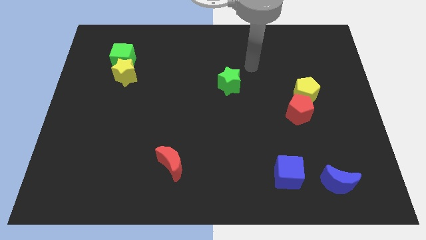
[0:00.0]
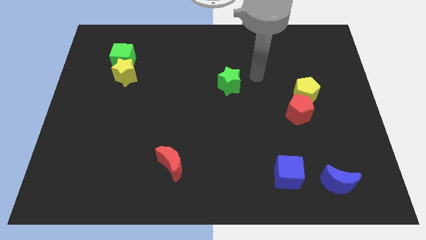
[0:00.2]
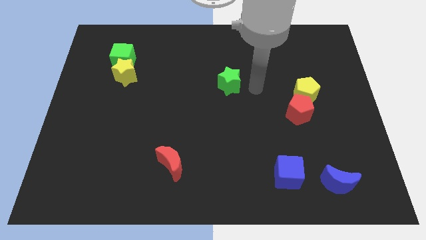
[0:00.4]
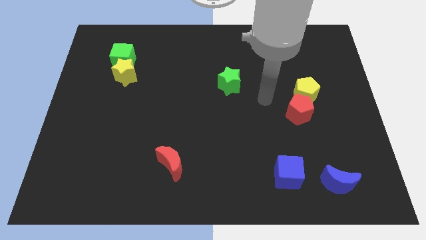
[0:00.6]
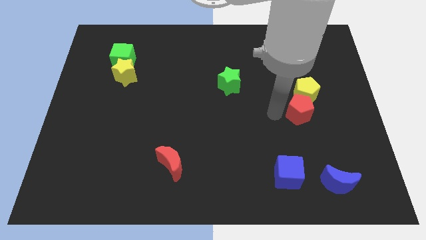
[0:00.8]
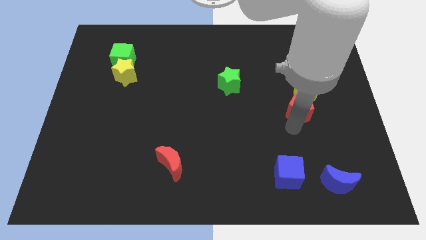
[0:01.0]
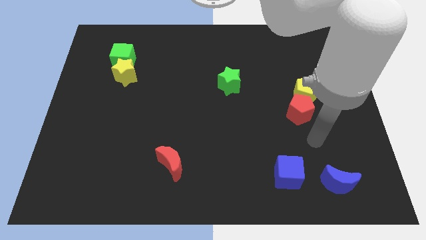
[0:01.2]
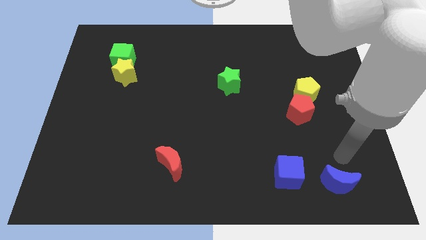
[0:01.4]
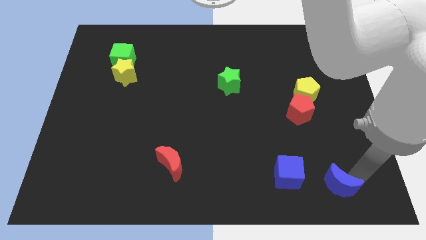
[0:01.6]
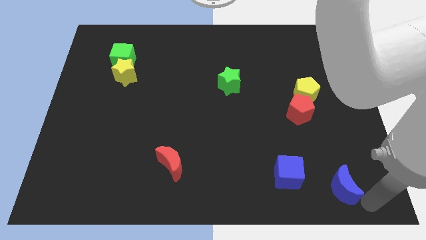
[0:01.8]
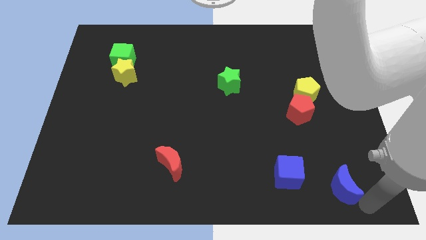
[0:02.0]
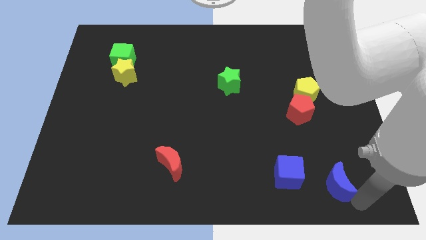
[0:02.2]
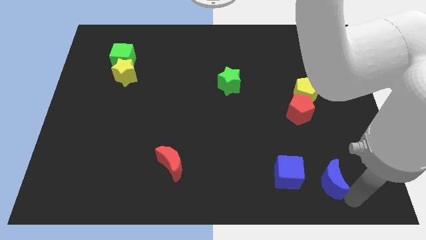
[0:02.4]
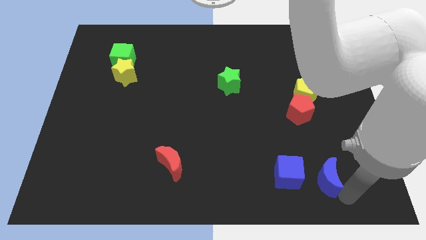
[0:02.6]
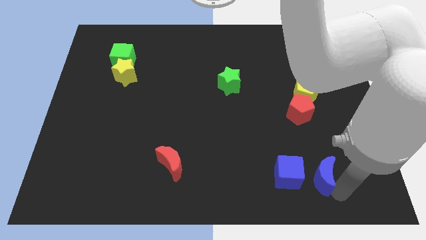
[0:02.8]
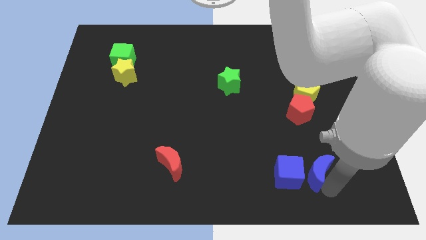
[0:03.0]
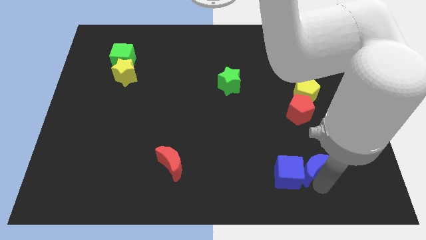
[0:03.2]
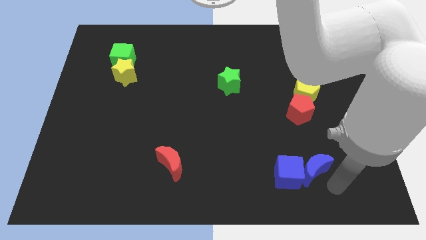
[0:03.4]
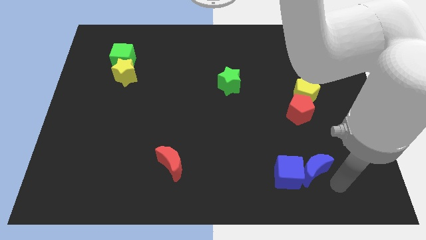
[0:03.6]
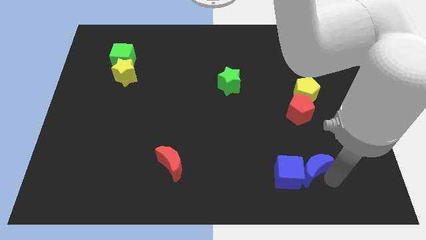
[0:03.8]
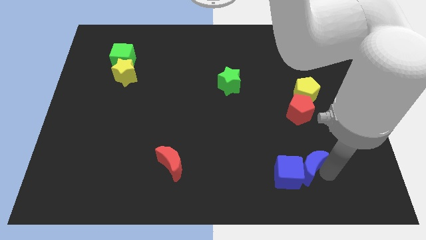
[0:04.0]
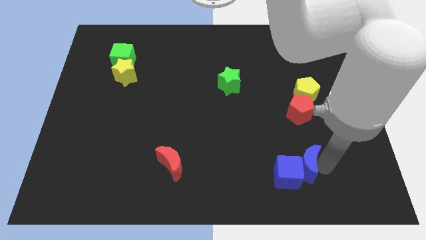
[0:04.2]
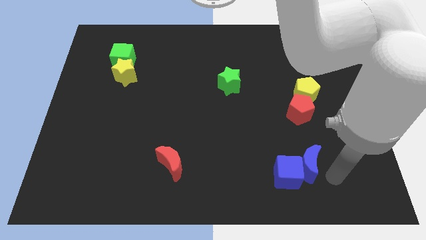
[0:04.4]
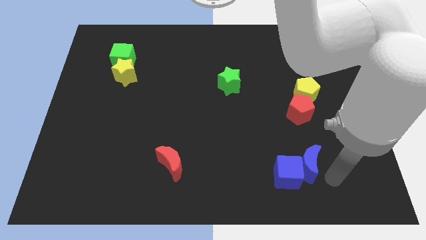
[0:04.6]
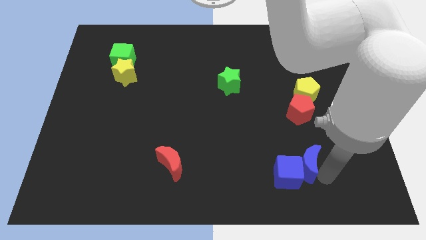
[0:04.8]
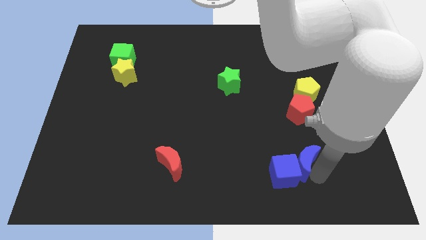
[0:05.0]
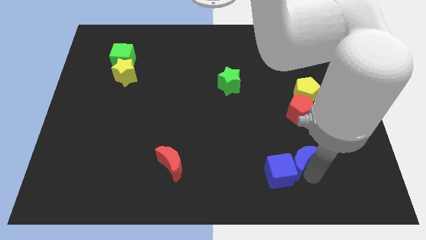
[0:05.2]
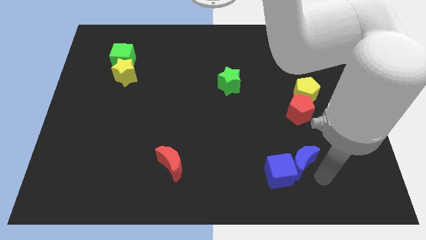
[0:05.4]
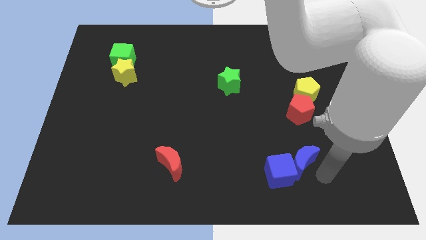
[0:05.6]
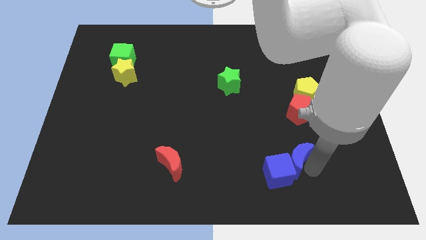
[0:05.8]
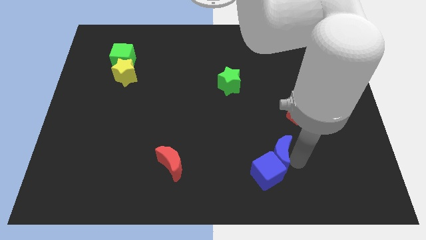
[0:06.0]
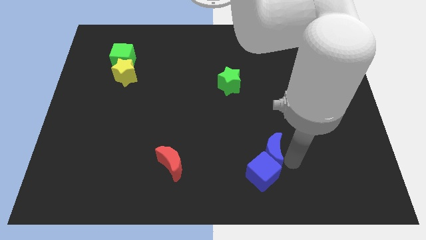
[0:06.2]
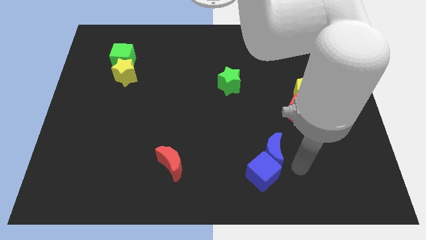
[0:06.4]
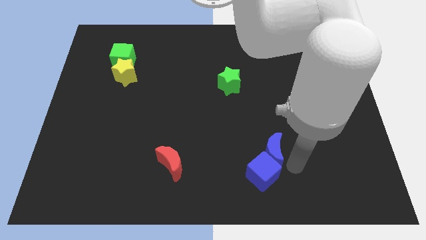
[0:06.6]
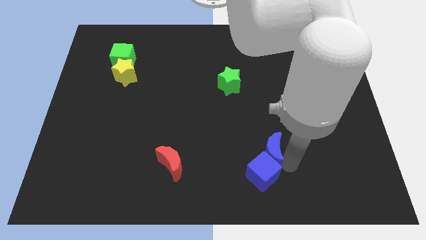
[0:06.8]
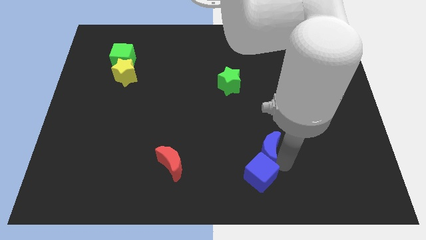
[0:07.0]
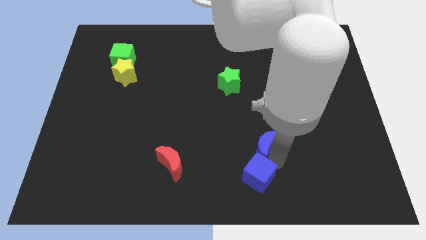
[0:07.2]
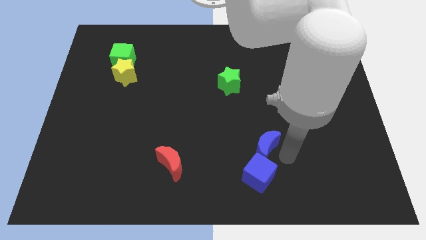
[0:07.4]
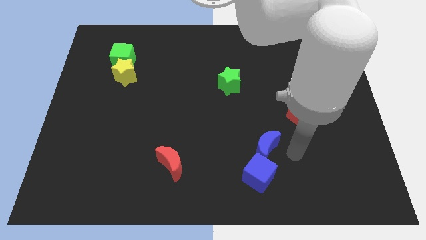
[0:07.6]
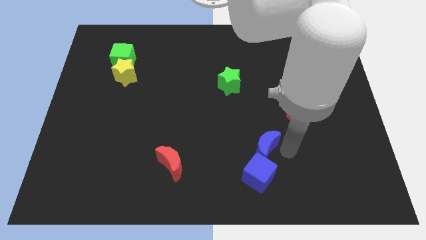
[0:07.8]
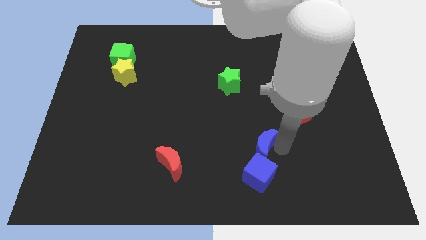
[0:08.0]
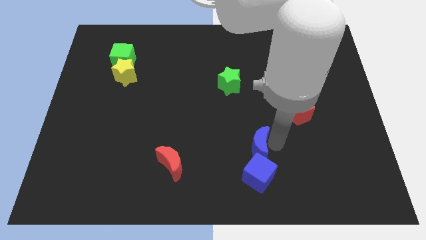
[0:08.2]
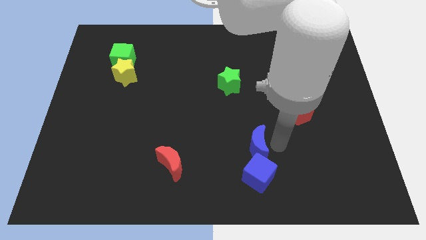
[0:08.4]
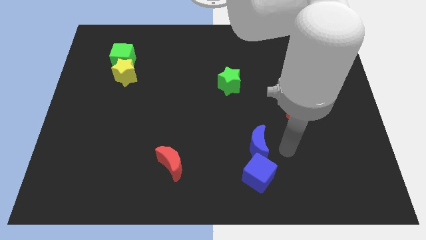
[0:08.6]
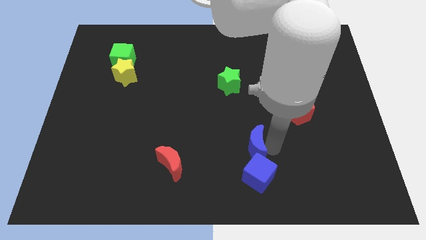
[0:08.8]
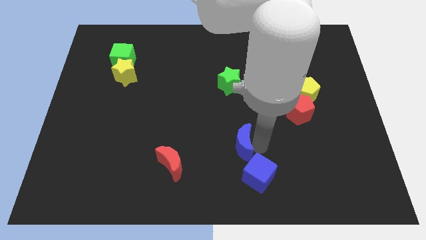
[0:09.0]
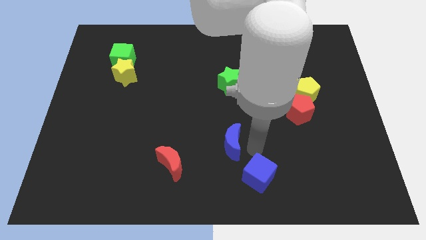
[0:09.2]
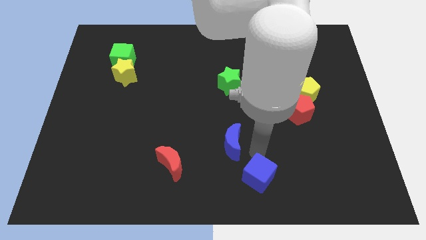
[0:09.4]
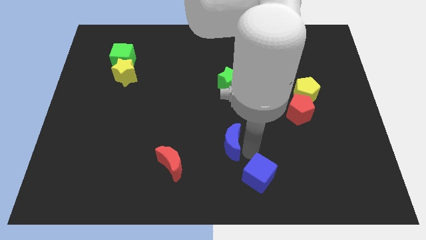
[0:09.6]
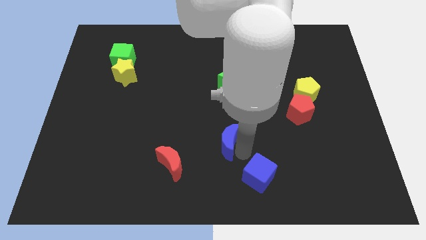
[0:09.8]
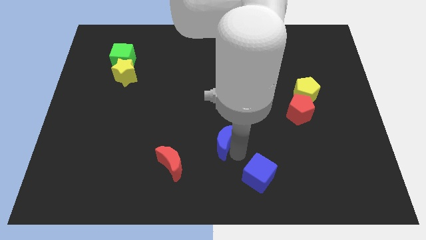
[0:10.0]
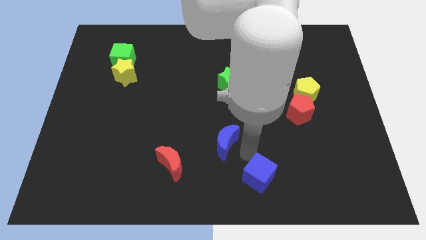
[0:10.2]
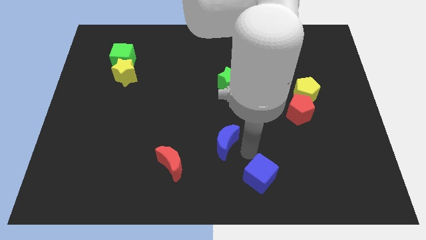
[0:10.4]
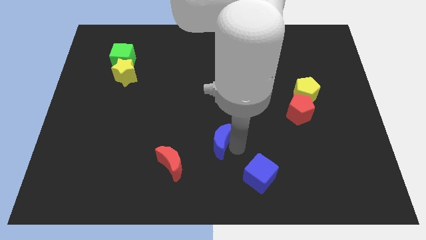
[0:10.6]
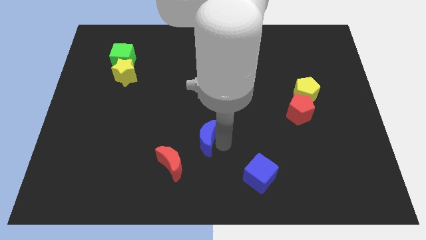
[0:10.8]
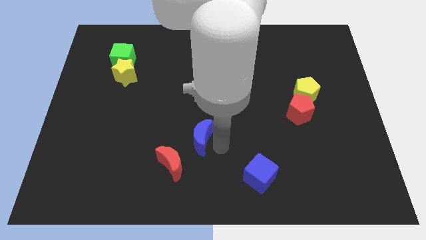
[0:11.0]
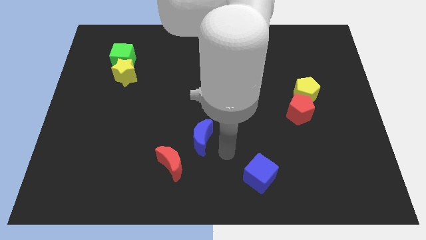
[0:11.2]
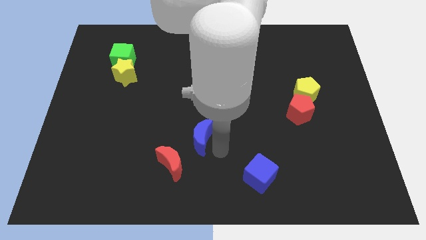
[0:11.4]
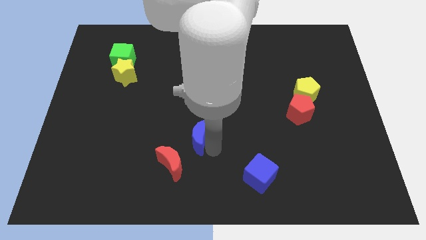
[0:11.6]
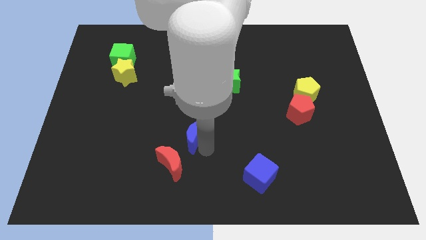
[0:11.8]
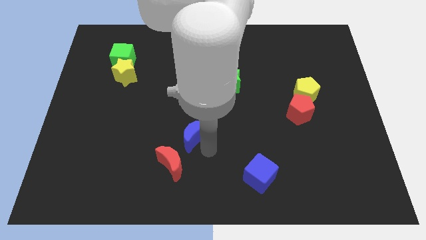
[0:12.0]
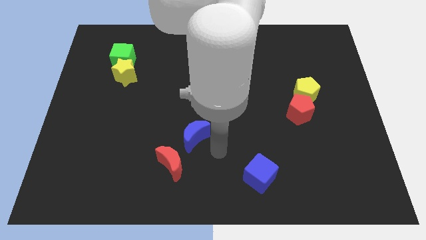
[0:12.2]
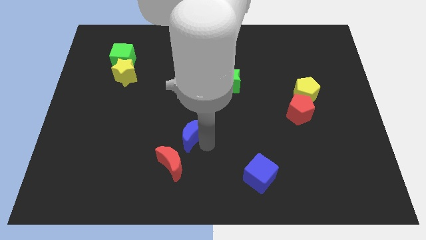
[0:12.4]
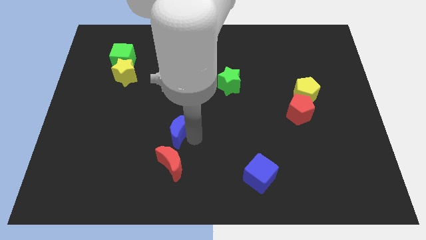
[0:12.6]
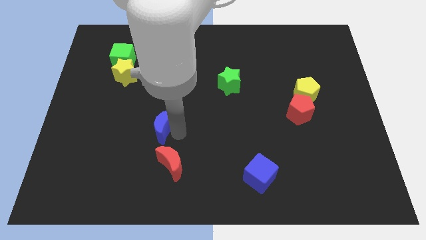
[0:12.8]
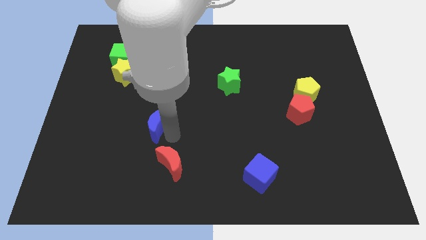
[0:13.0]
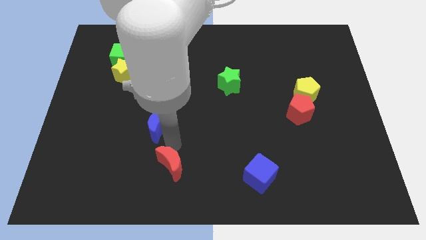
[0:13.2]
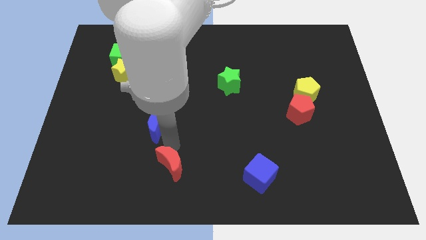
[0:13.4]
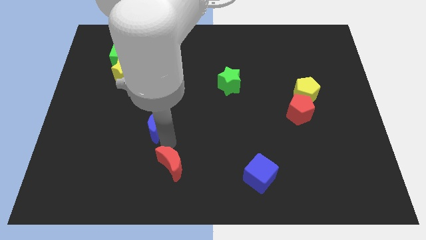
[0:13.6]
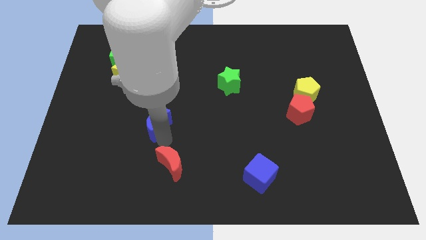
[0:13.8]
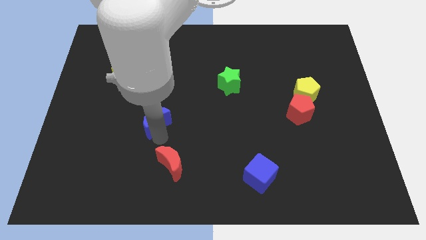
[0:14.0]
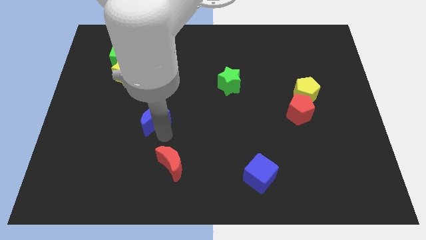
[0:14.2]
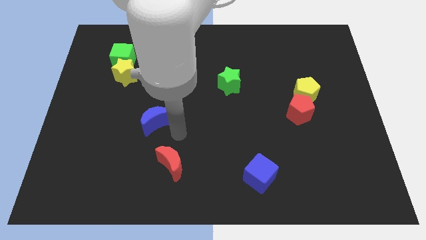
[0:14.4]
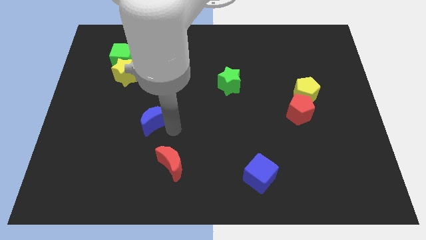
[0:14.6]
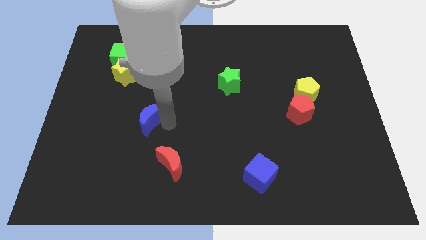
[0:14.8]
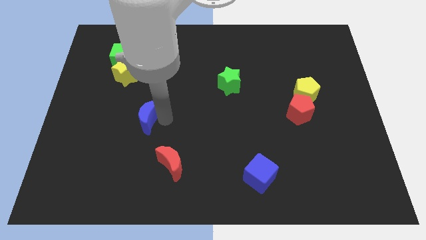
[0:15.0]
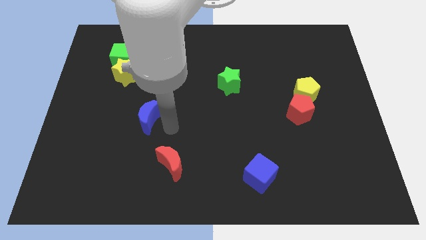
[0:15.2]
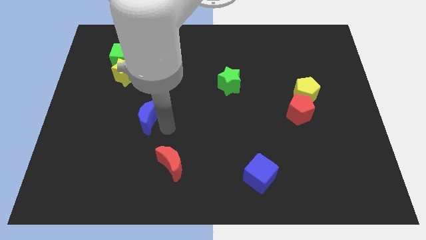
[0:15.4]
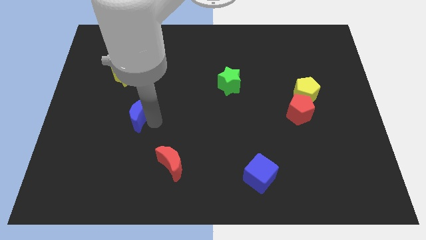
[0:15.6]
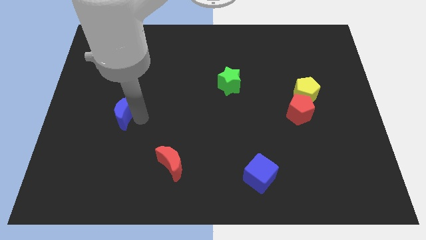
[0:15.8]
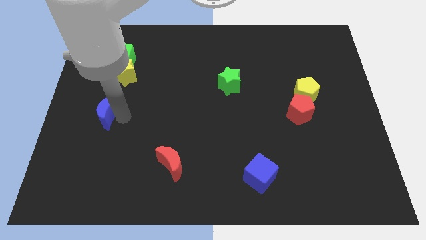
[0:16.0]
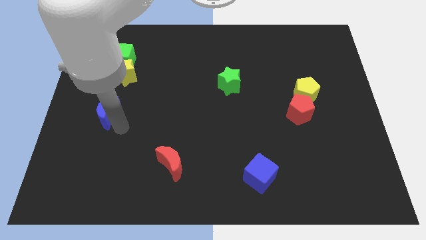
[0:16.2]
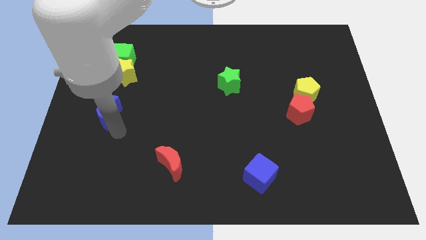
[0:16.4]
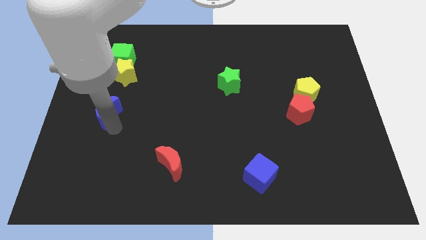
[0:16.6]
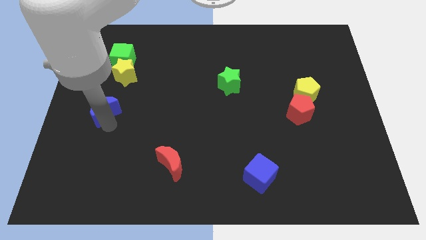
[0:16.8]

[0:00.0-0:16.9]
push the blue moon to the left side of the board
